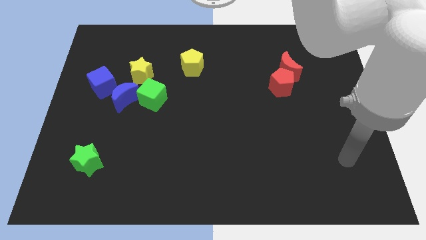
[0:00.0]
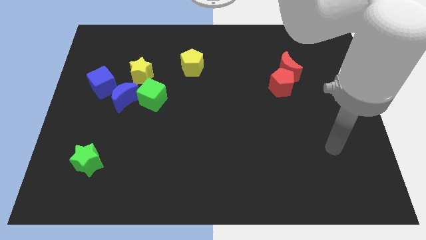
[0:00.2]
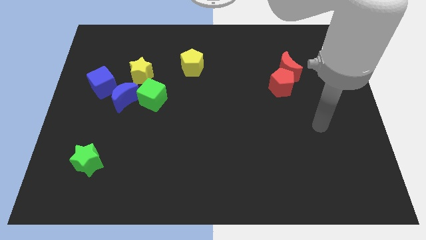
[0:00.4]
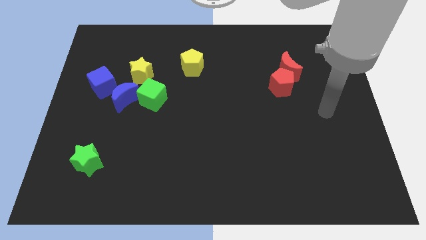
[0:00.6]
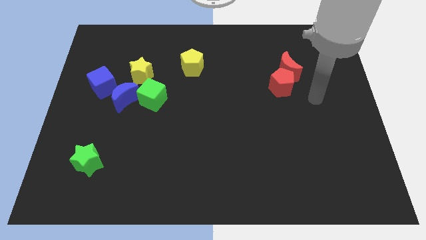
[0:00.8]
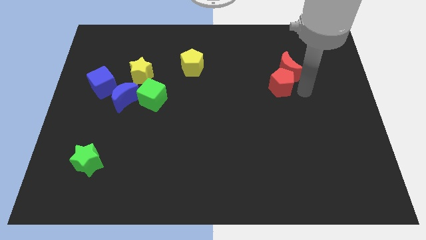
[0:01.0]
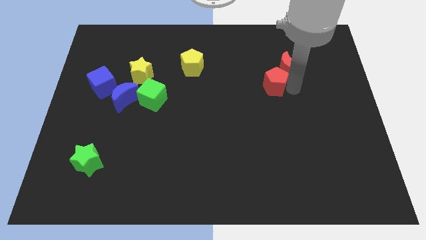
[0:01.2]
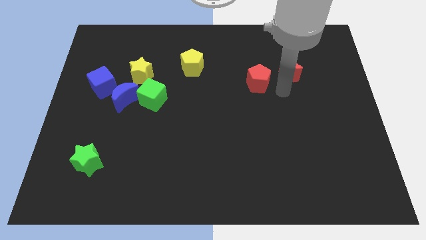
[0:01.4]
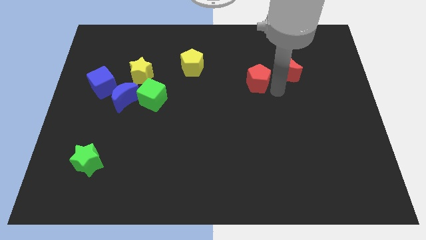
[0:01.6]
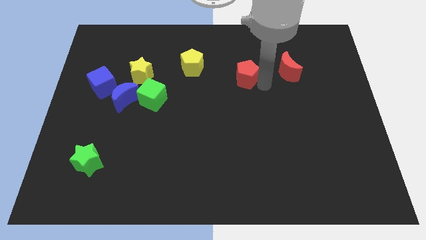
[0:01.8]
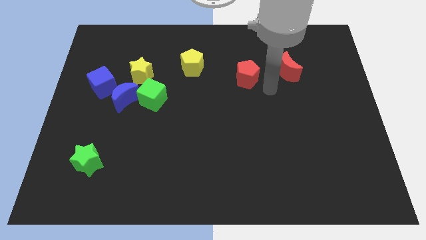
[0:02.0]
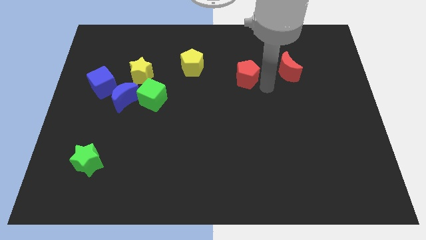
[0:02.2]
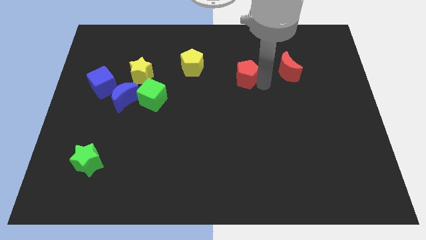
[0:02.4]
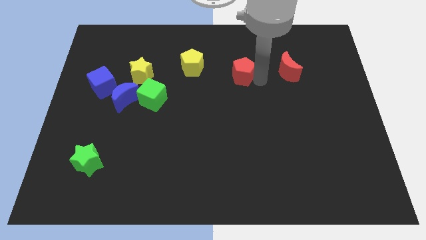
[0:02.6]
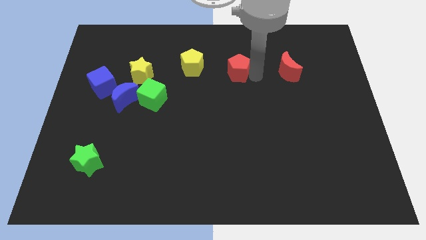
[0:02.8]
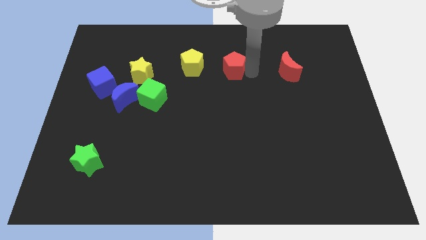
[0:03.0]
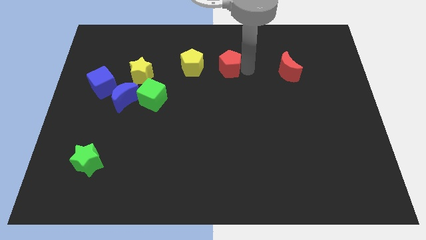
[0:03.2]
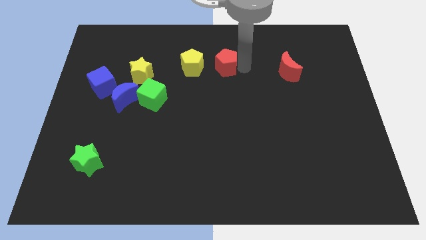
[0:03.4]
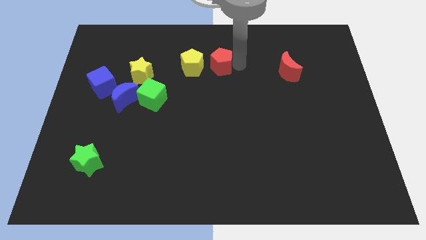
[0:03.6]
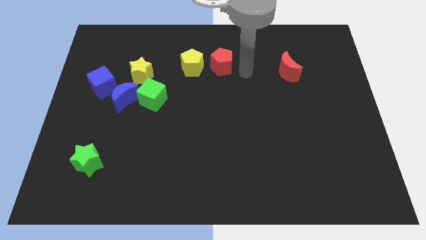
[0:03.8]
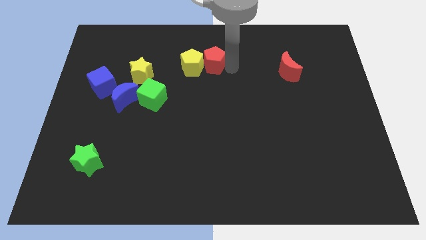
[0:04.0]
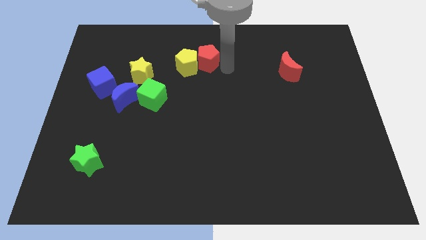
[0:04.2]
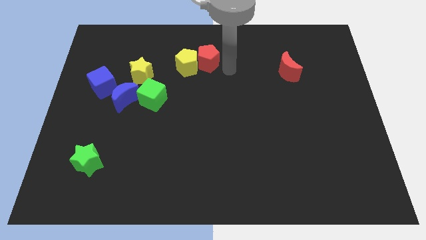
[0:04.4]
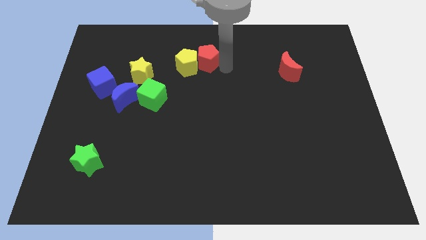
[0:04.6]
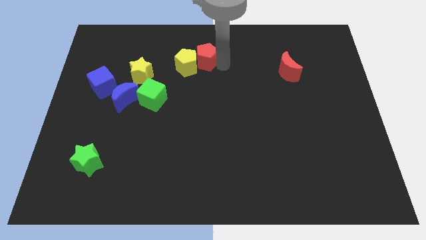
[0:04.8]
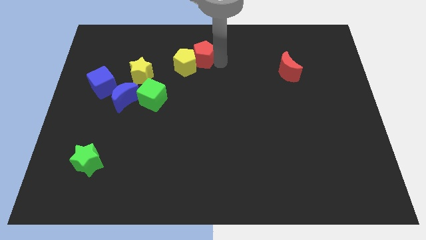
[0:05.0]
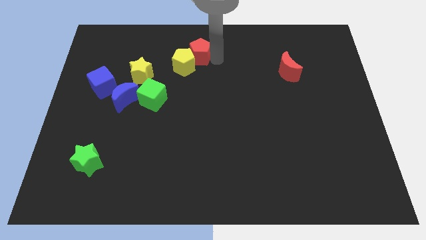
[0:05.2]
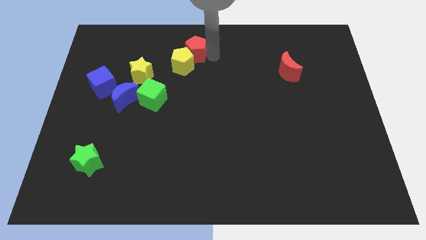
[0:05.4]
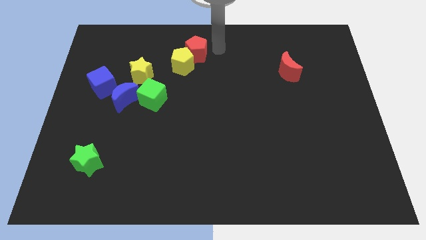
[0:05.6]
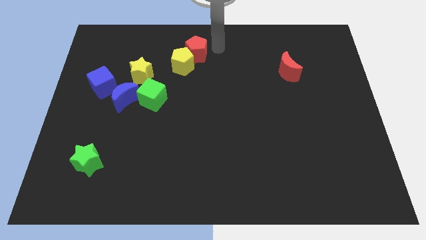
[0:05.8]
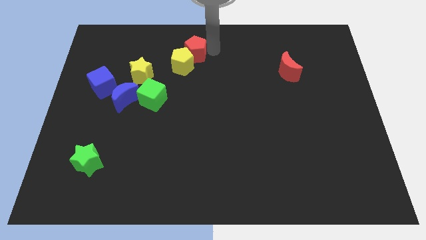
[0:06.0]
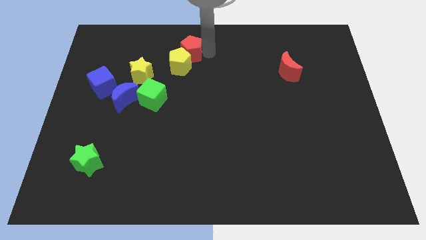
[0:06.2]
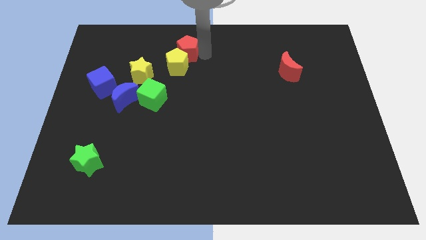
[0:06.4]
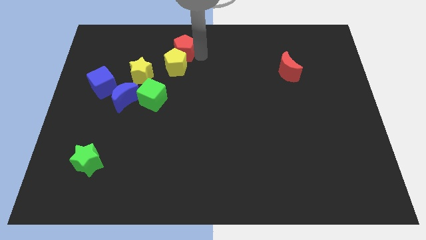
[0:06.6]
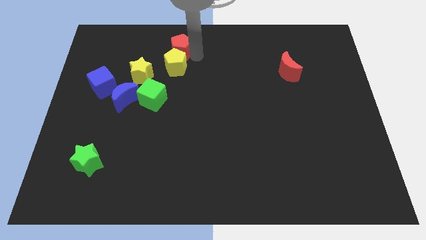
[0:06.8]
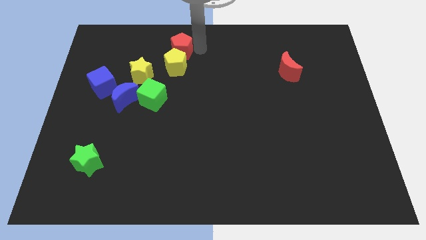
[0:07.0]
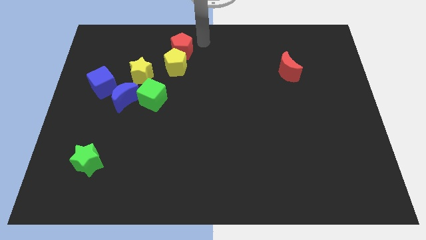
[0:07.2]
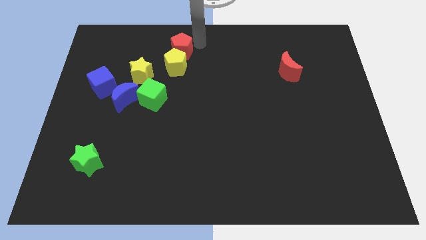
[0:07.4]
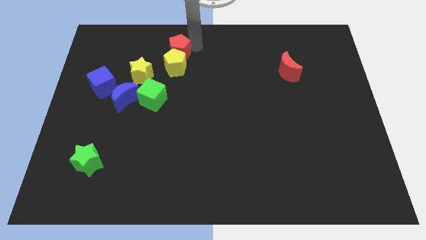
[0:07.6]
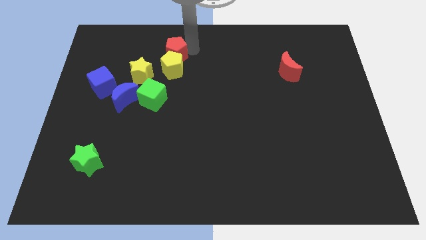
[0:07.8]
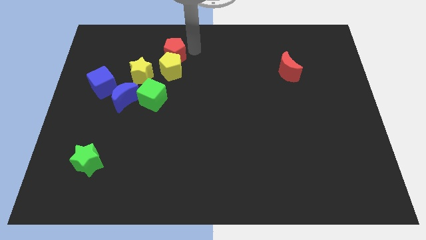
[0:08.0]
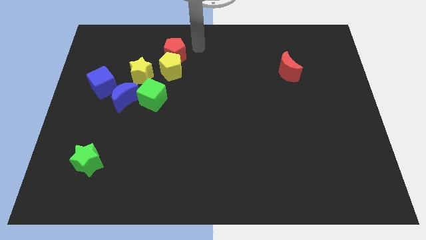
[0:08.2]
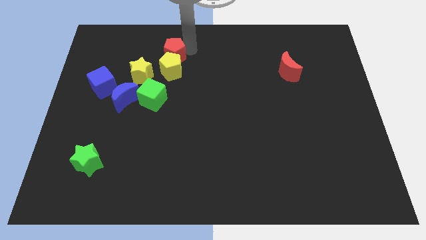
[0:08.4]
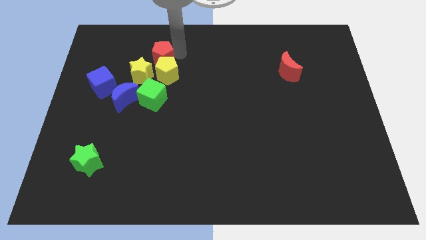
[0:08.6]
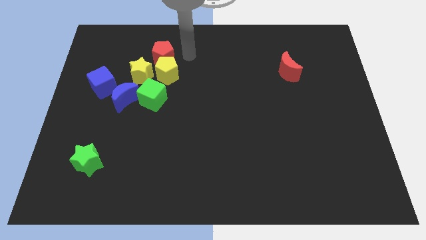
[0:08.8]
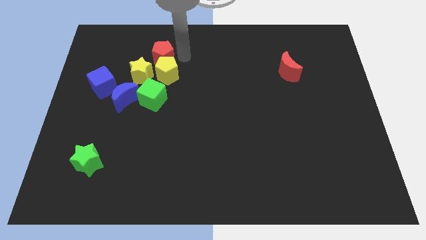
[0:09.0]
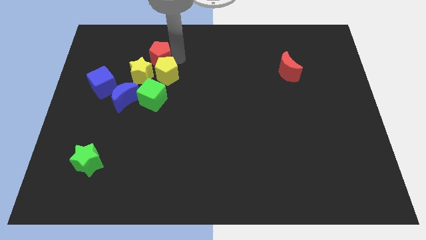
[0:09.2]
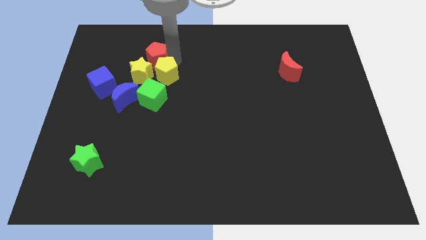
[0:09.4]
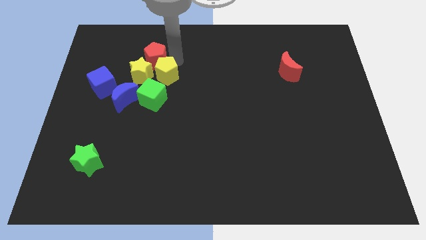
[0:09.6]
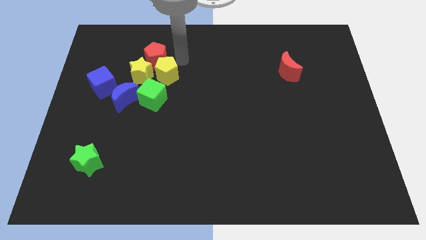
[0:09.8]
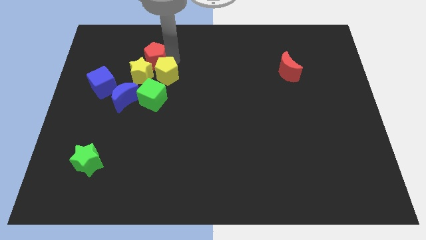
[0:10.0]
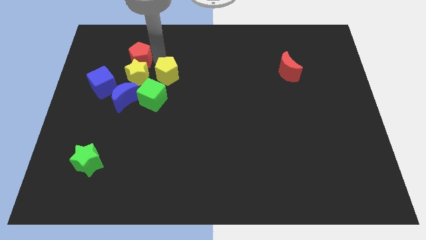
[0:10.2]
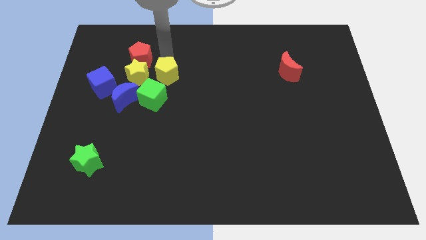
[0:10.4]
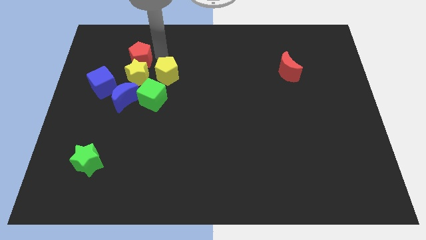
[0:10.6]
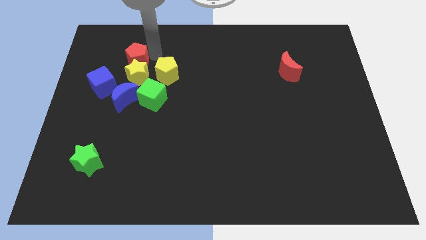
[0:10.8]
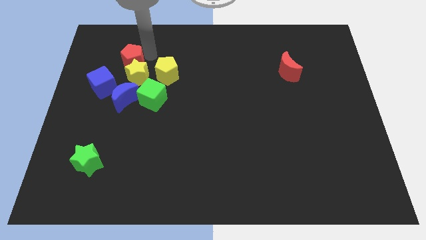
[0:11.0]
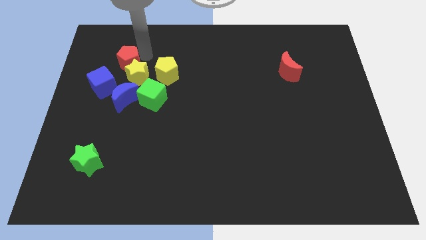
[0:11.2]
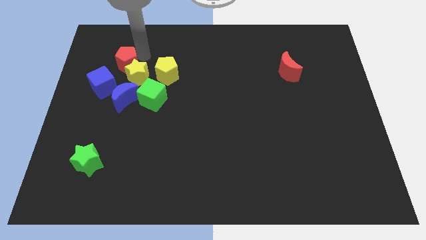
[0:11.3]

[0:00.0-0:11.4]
move the red pentagon just left of the yellow star

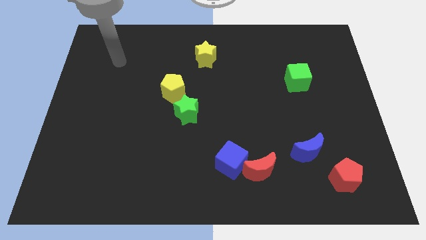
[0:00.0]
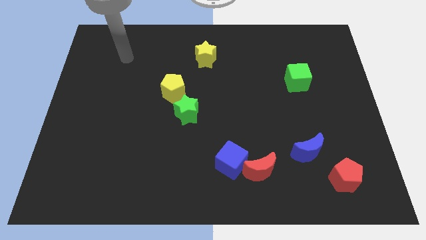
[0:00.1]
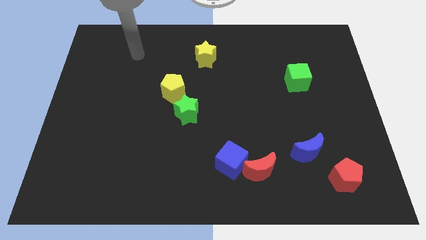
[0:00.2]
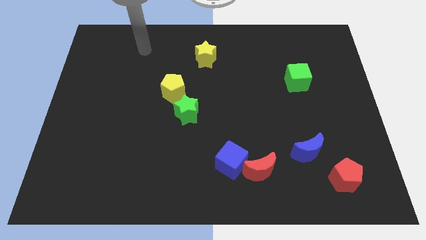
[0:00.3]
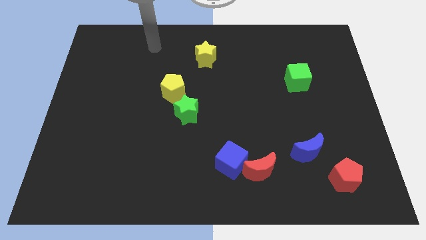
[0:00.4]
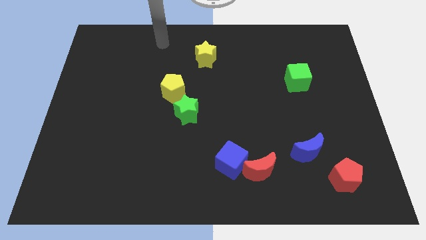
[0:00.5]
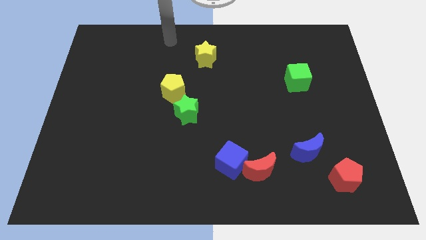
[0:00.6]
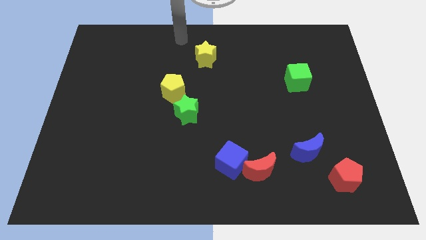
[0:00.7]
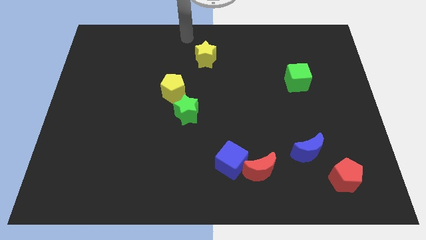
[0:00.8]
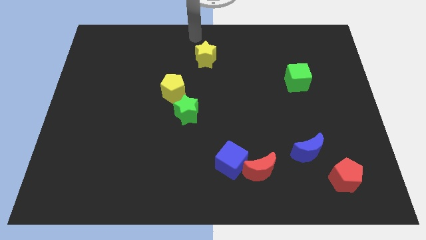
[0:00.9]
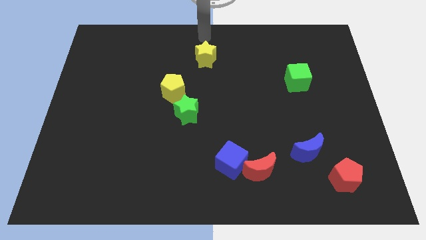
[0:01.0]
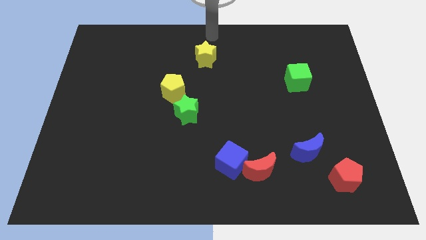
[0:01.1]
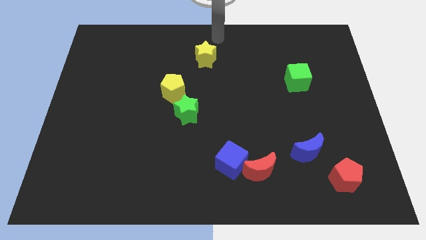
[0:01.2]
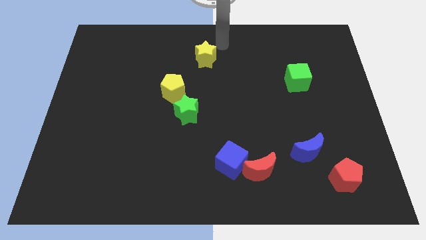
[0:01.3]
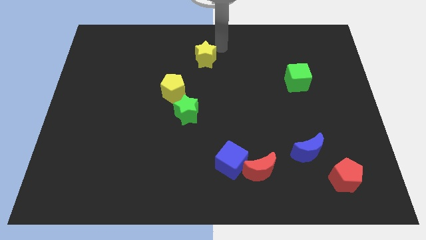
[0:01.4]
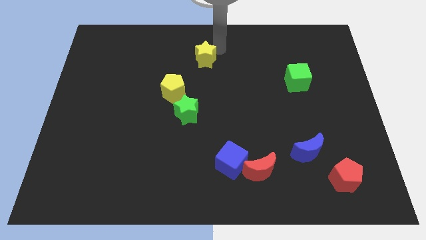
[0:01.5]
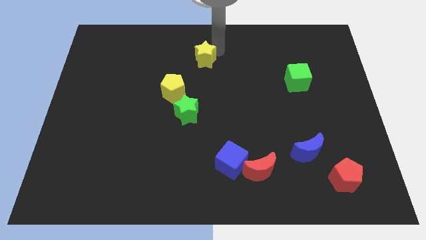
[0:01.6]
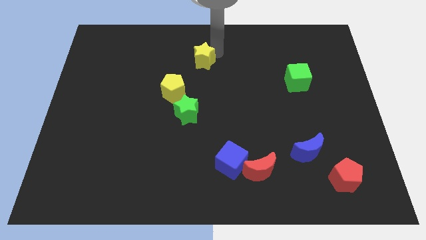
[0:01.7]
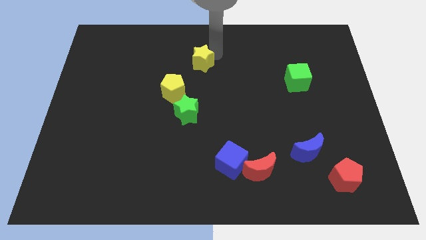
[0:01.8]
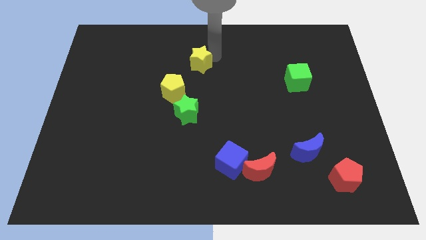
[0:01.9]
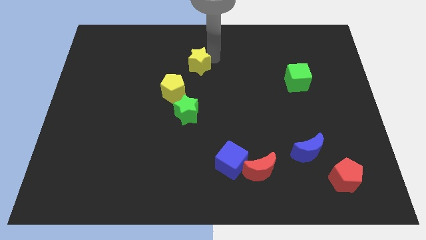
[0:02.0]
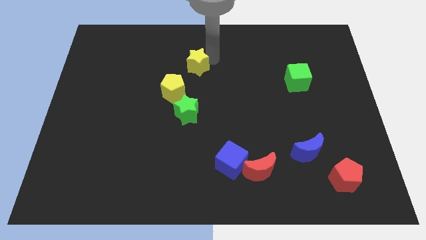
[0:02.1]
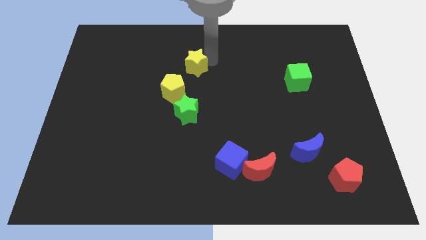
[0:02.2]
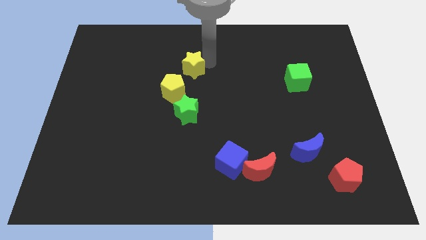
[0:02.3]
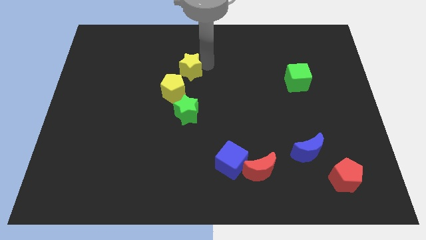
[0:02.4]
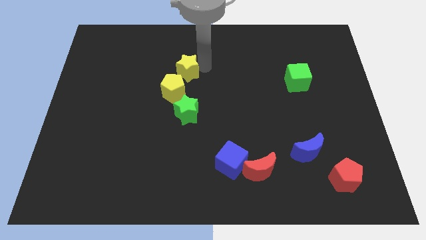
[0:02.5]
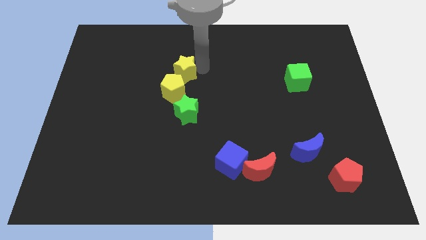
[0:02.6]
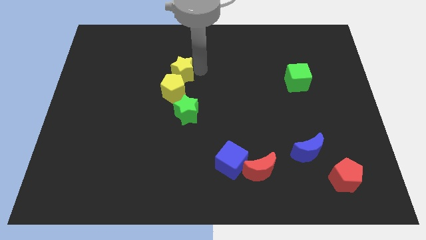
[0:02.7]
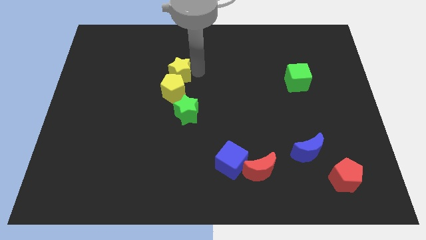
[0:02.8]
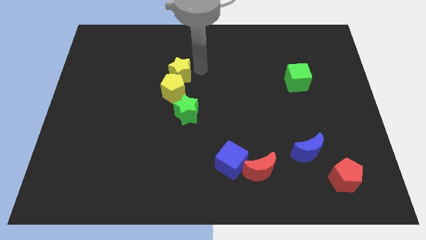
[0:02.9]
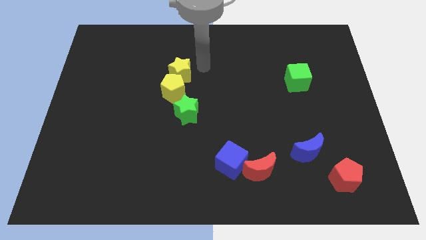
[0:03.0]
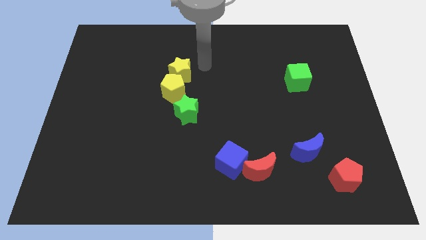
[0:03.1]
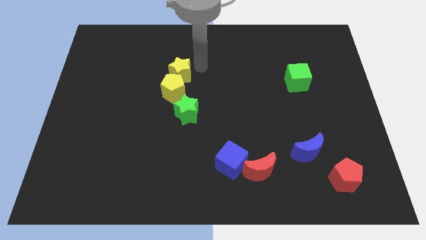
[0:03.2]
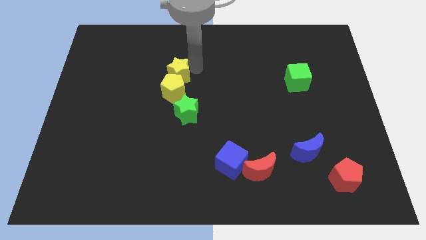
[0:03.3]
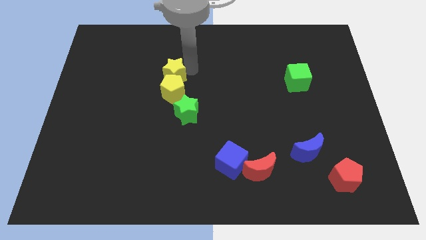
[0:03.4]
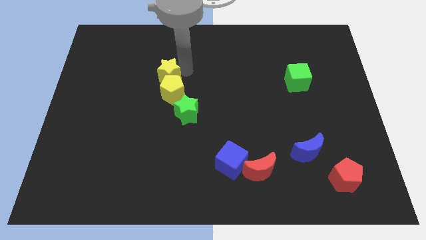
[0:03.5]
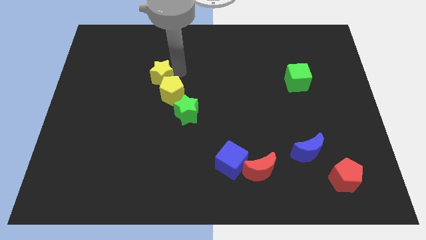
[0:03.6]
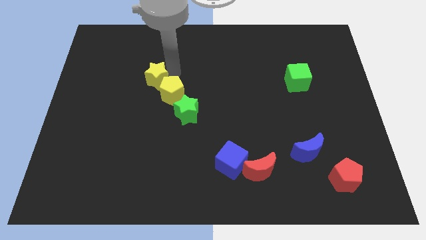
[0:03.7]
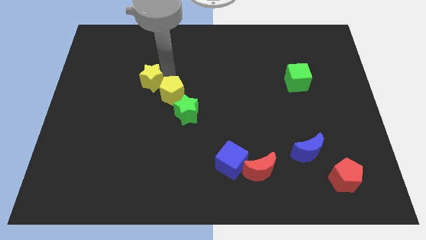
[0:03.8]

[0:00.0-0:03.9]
move the yellow star left of the yellow pentagon
